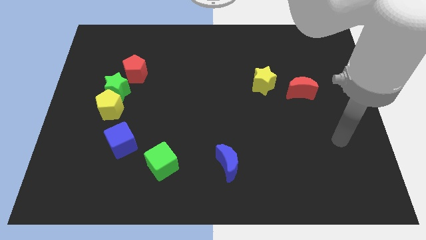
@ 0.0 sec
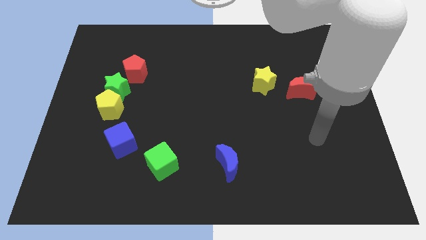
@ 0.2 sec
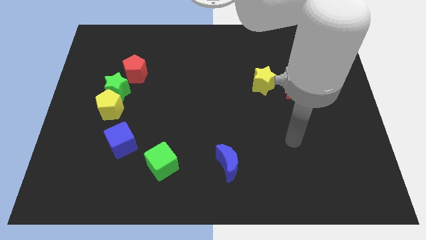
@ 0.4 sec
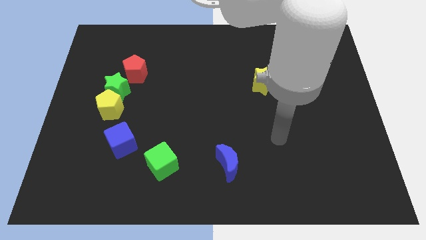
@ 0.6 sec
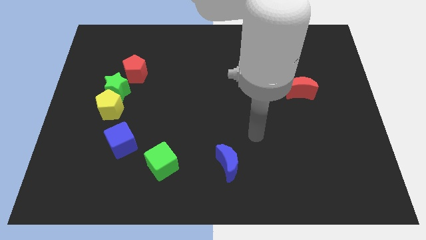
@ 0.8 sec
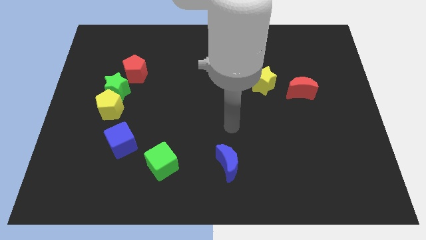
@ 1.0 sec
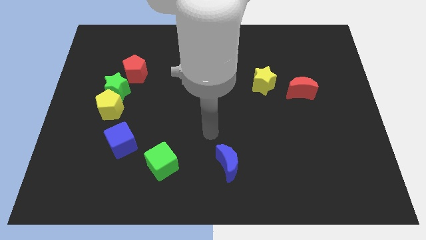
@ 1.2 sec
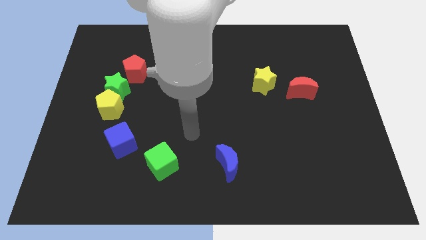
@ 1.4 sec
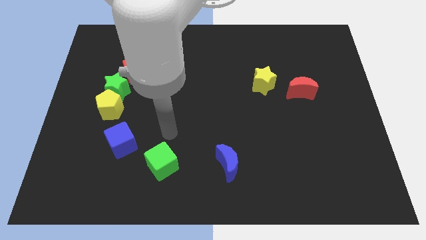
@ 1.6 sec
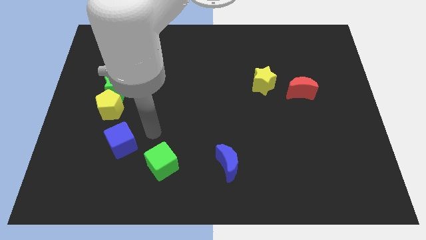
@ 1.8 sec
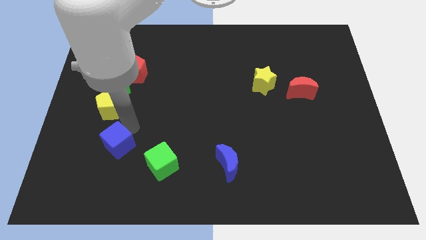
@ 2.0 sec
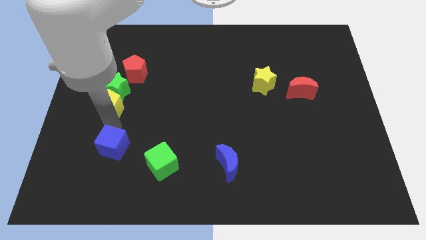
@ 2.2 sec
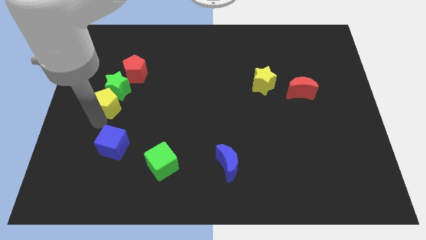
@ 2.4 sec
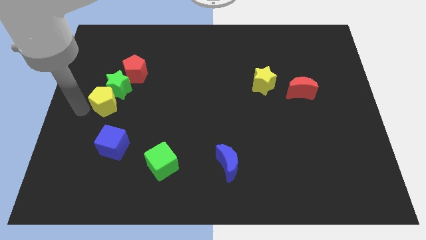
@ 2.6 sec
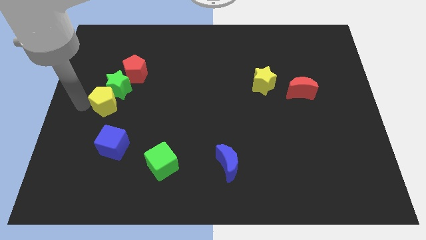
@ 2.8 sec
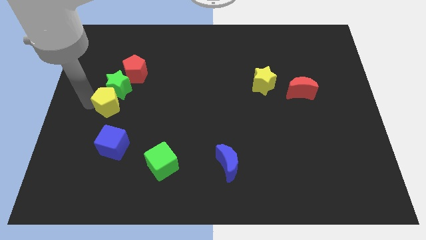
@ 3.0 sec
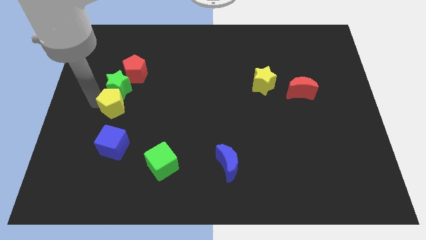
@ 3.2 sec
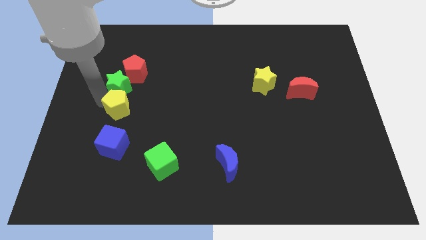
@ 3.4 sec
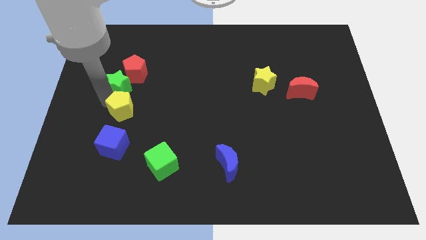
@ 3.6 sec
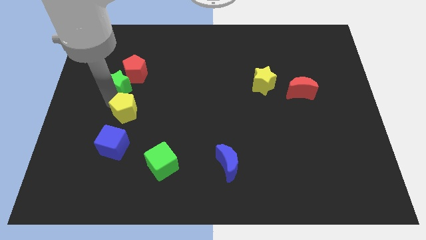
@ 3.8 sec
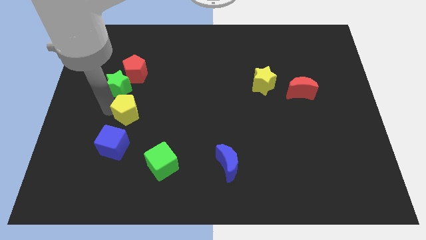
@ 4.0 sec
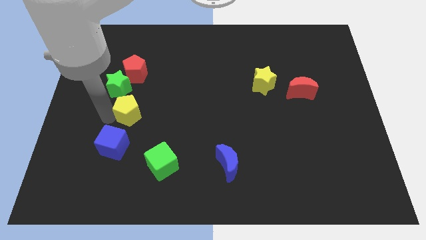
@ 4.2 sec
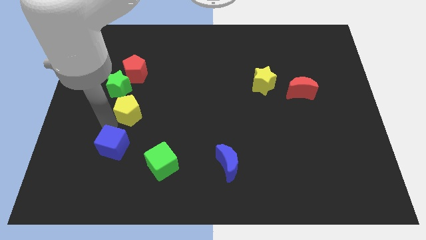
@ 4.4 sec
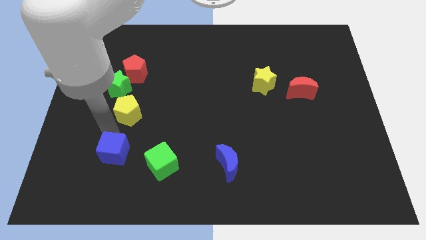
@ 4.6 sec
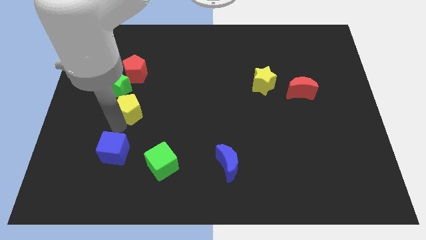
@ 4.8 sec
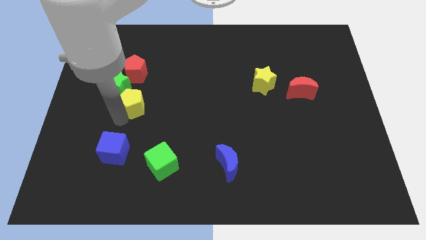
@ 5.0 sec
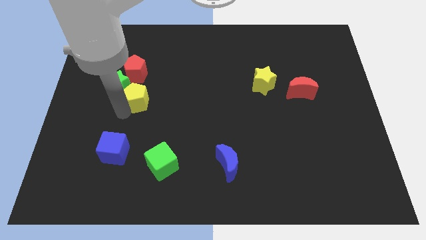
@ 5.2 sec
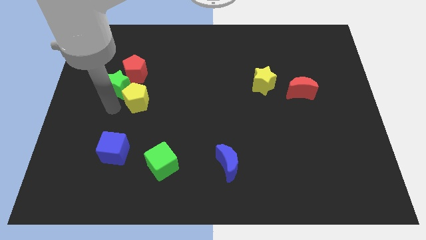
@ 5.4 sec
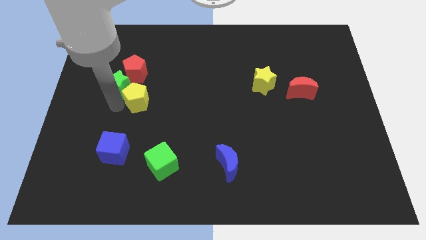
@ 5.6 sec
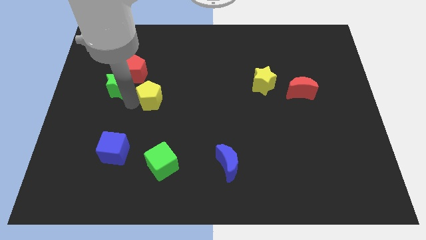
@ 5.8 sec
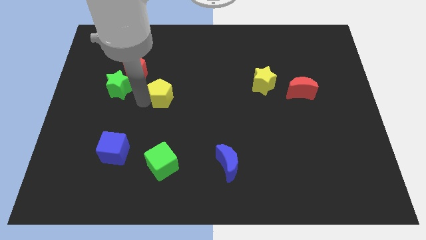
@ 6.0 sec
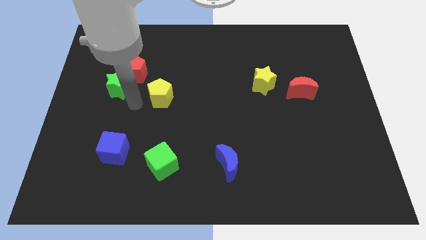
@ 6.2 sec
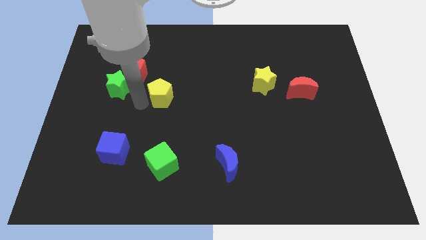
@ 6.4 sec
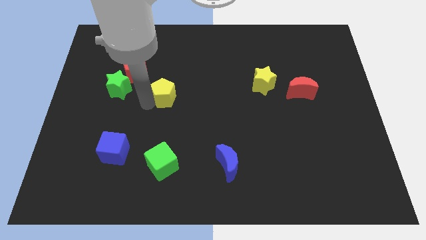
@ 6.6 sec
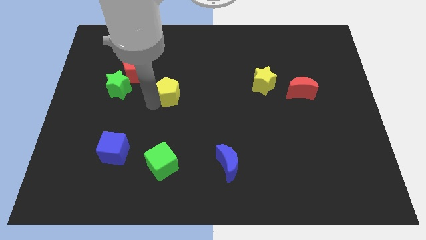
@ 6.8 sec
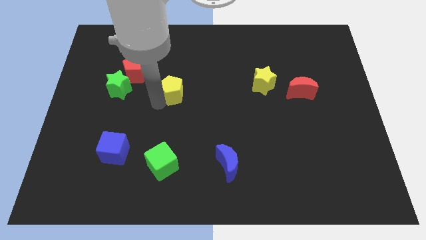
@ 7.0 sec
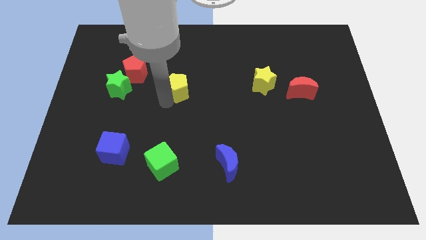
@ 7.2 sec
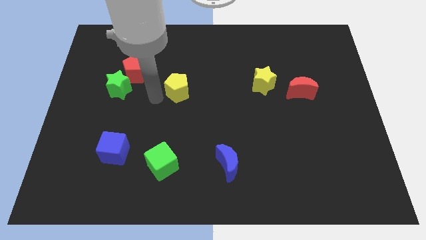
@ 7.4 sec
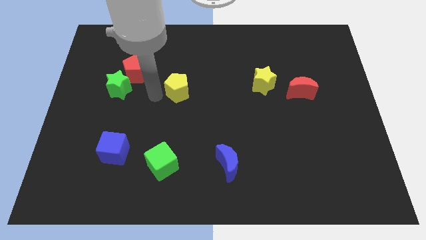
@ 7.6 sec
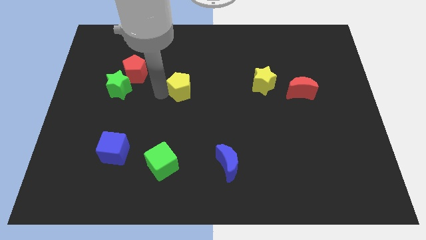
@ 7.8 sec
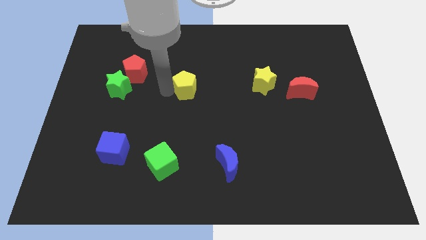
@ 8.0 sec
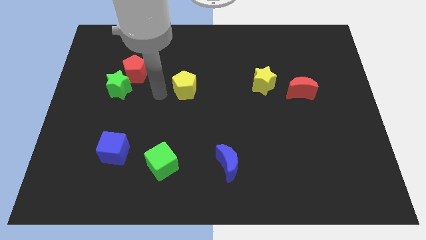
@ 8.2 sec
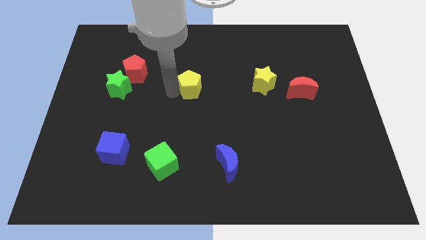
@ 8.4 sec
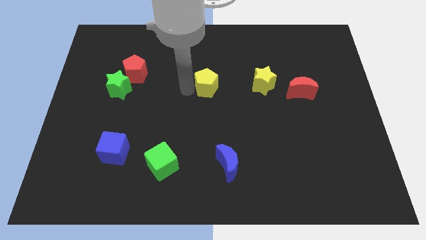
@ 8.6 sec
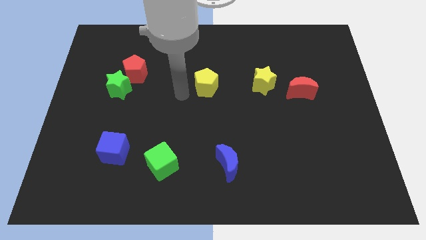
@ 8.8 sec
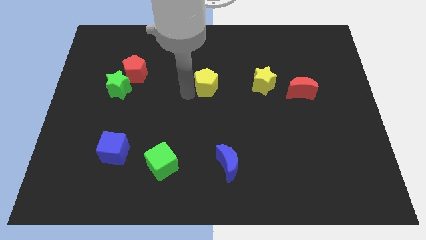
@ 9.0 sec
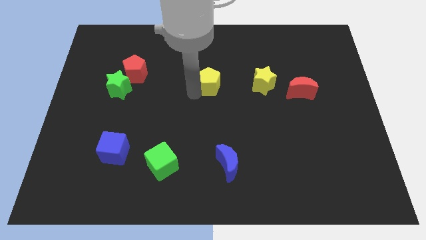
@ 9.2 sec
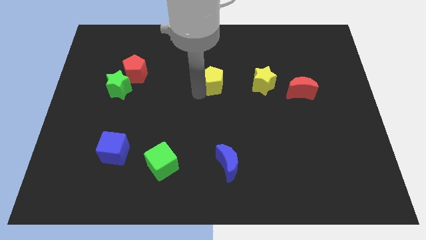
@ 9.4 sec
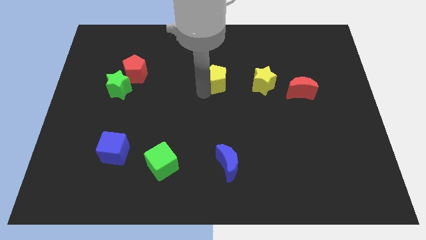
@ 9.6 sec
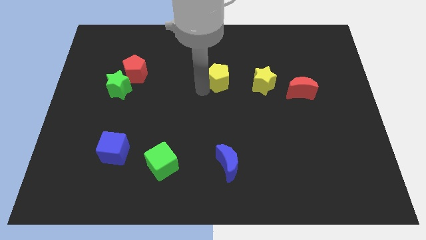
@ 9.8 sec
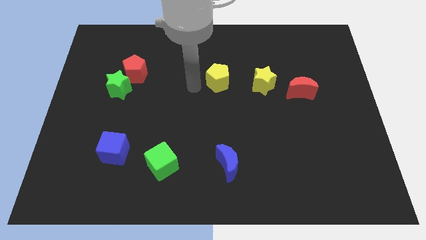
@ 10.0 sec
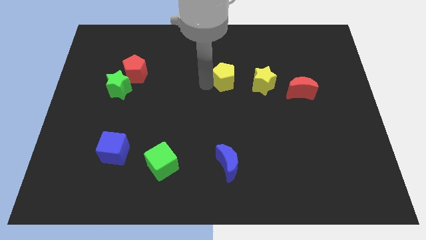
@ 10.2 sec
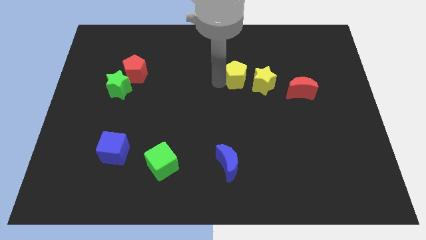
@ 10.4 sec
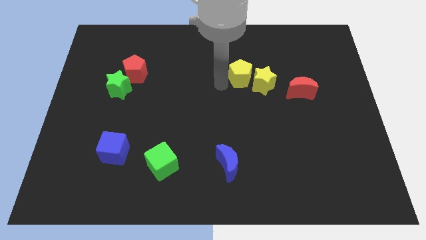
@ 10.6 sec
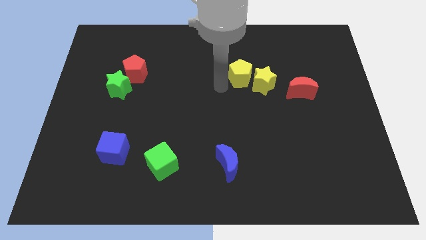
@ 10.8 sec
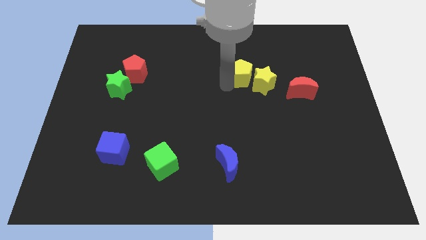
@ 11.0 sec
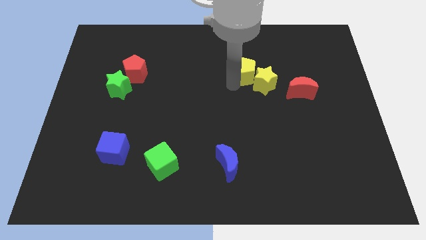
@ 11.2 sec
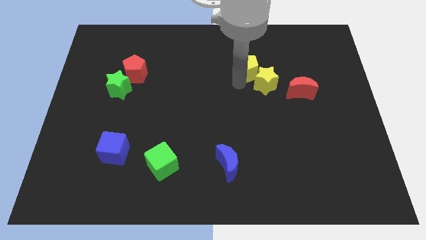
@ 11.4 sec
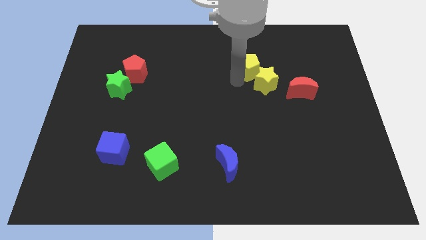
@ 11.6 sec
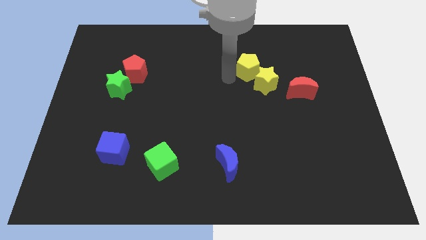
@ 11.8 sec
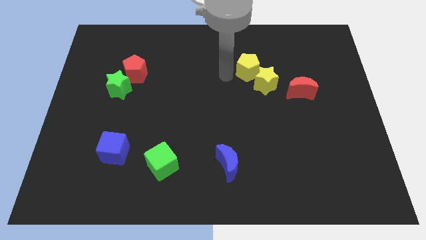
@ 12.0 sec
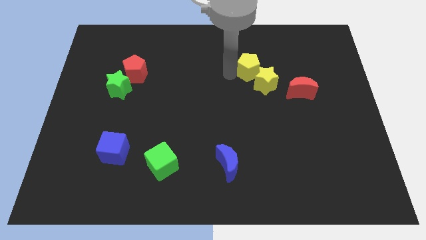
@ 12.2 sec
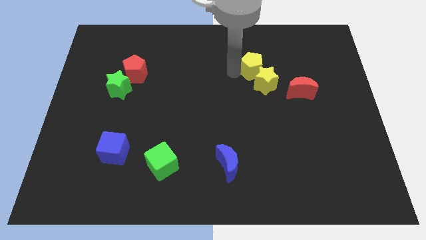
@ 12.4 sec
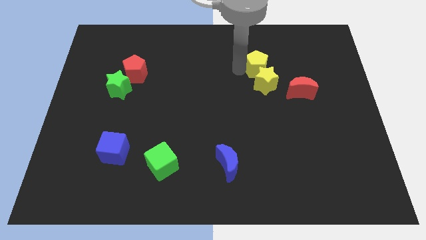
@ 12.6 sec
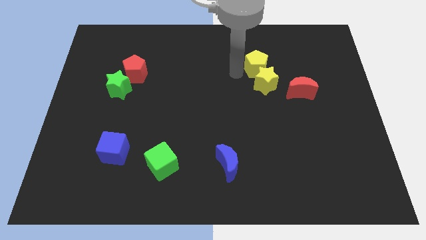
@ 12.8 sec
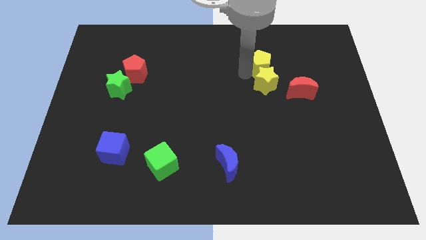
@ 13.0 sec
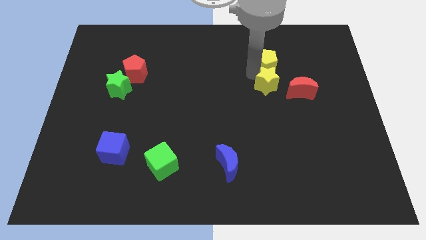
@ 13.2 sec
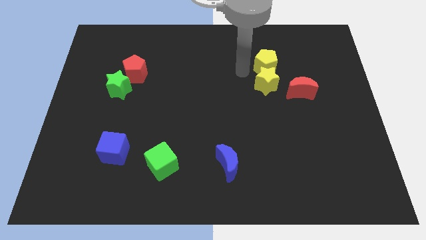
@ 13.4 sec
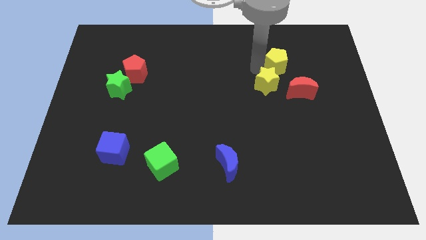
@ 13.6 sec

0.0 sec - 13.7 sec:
push the yellow pentagon to the top of the red moon
